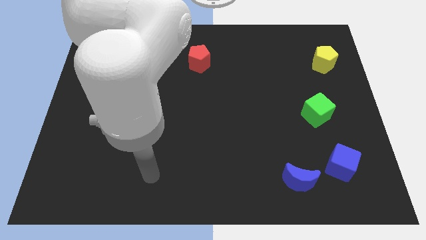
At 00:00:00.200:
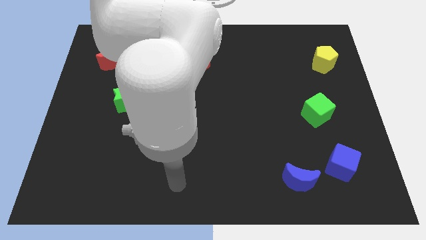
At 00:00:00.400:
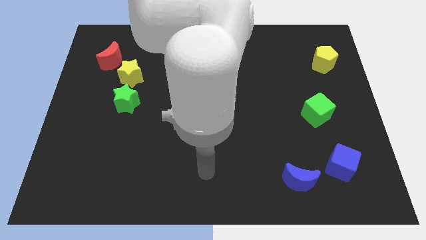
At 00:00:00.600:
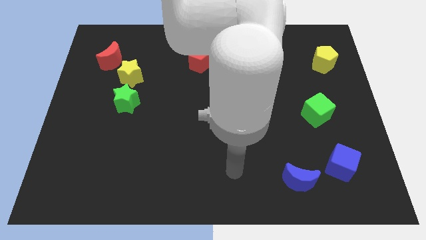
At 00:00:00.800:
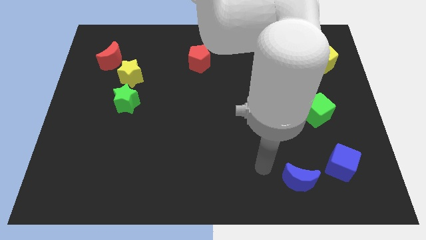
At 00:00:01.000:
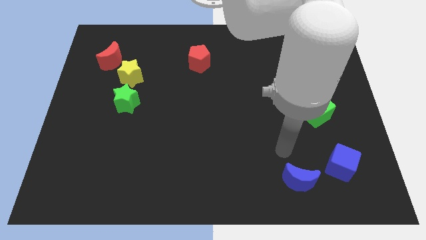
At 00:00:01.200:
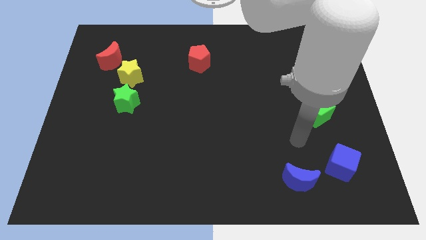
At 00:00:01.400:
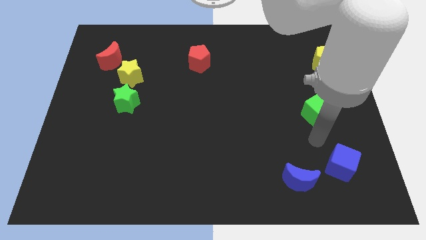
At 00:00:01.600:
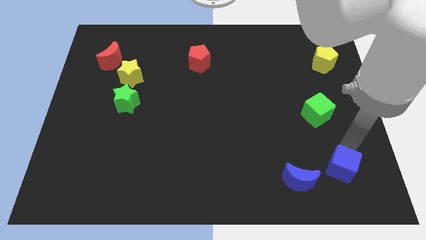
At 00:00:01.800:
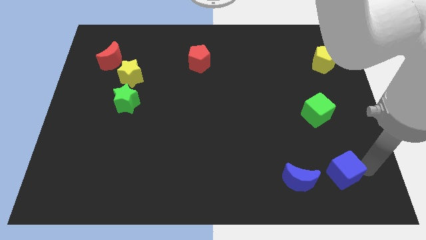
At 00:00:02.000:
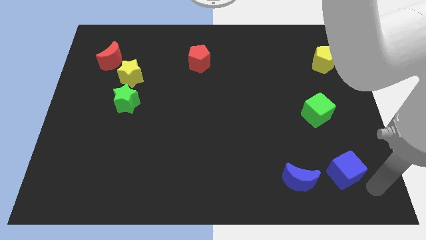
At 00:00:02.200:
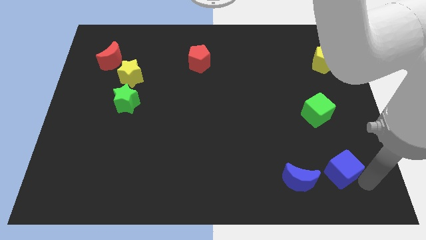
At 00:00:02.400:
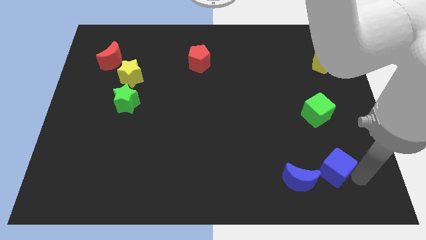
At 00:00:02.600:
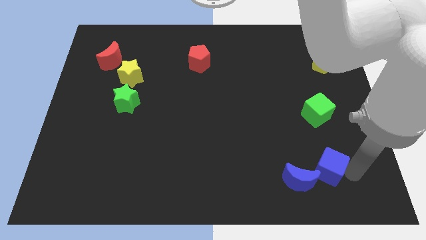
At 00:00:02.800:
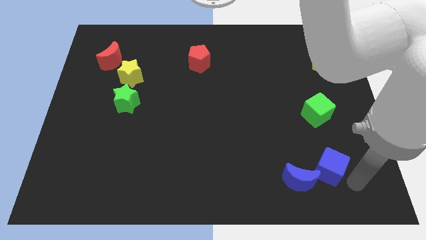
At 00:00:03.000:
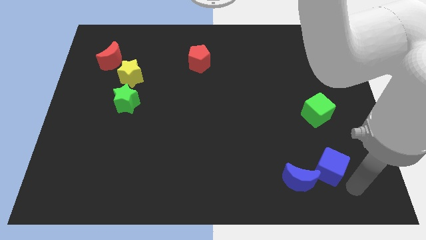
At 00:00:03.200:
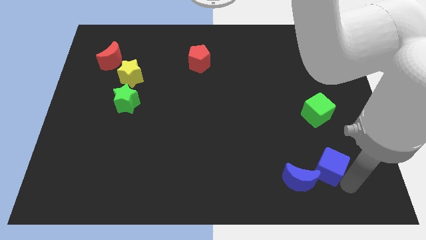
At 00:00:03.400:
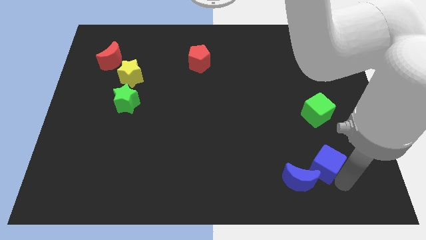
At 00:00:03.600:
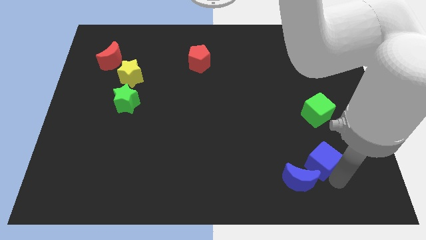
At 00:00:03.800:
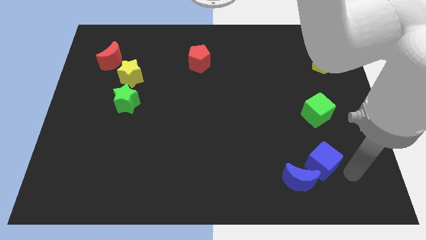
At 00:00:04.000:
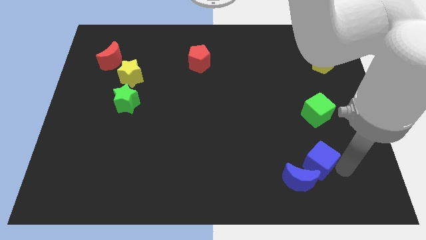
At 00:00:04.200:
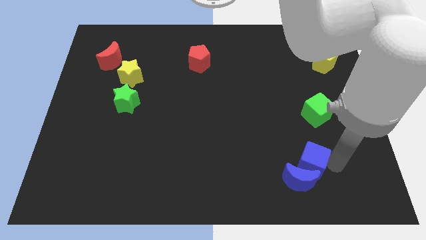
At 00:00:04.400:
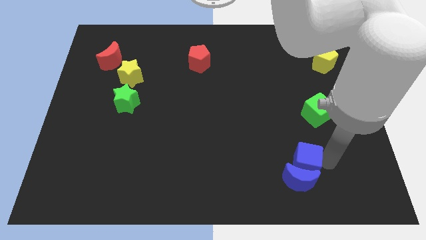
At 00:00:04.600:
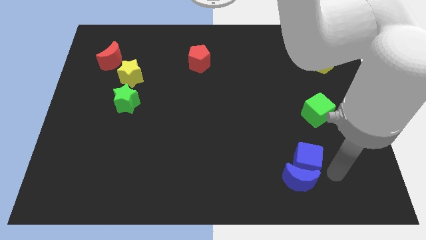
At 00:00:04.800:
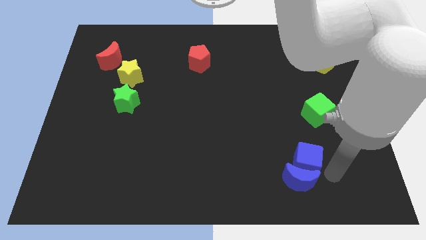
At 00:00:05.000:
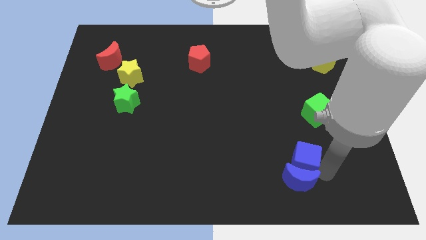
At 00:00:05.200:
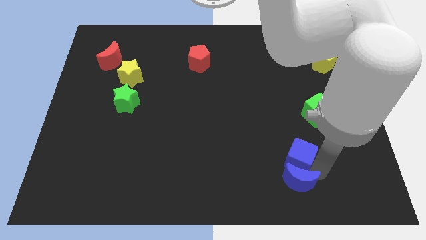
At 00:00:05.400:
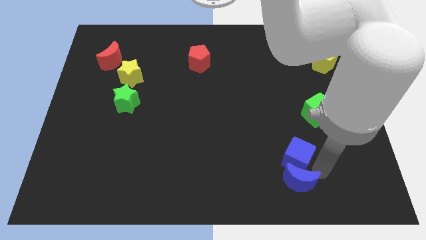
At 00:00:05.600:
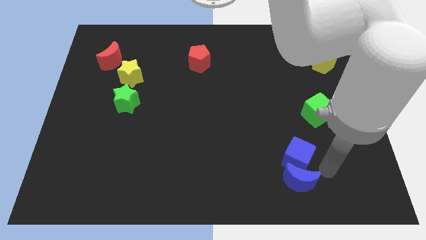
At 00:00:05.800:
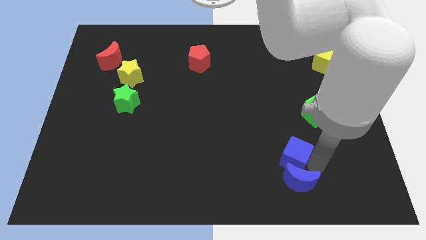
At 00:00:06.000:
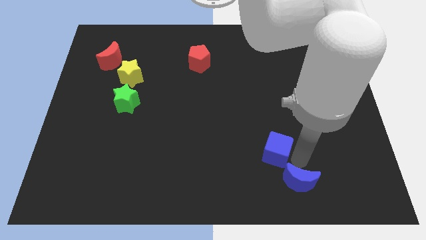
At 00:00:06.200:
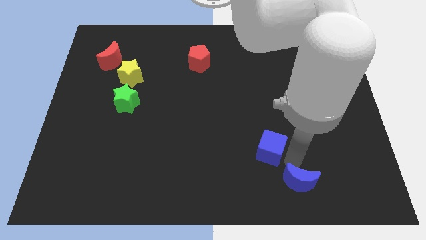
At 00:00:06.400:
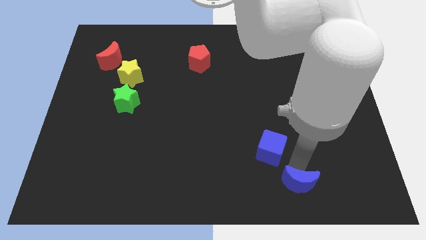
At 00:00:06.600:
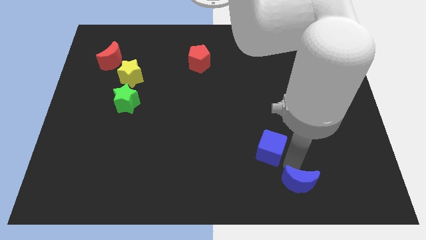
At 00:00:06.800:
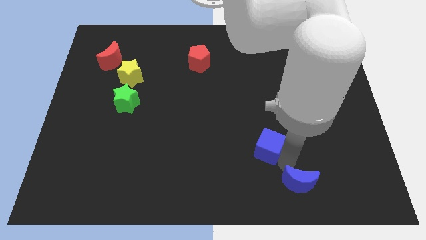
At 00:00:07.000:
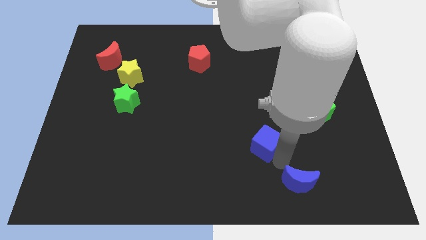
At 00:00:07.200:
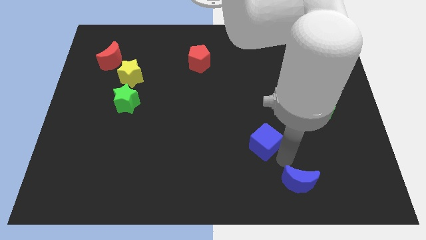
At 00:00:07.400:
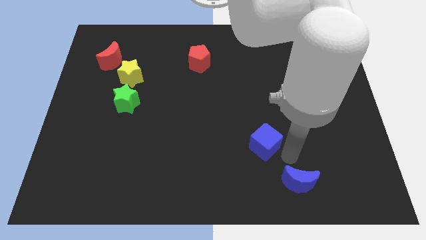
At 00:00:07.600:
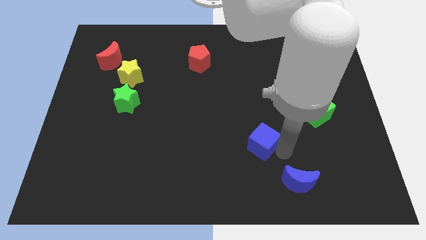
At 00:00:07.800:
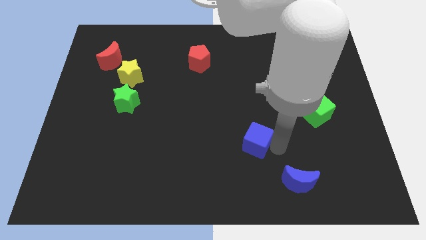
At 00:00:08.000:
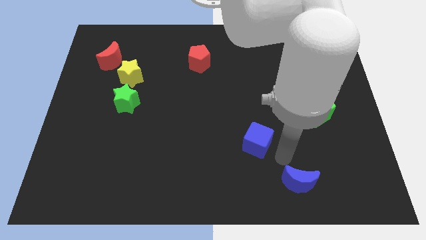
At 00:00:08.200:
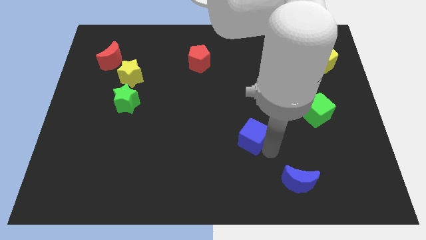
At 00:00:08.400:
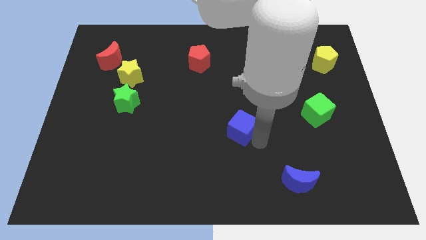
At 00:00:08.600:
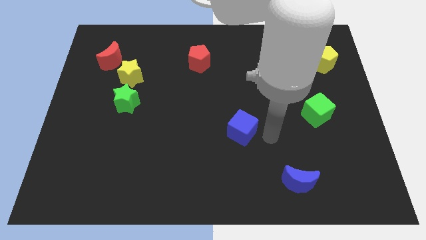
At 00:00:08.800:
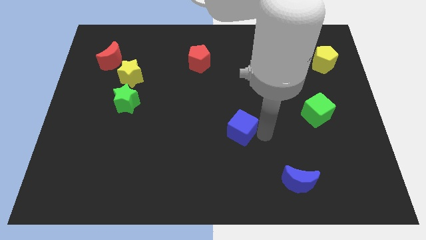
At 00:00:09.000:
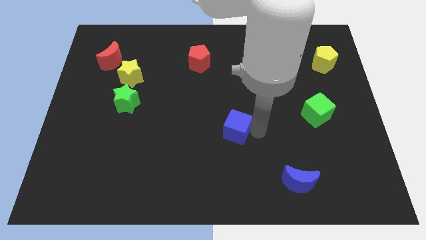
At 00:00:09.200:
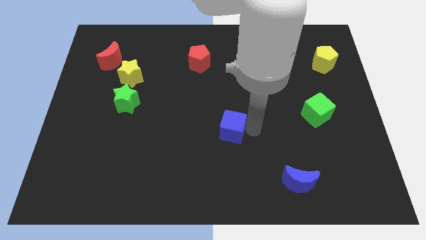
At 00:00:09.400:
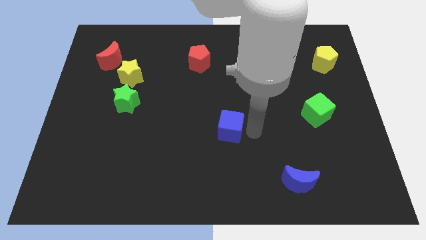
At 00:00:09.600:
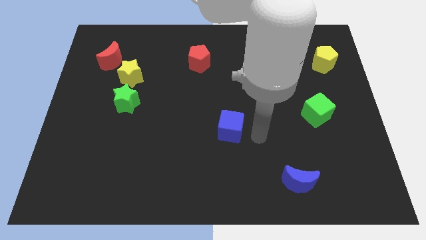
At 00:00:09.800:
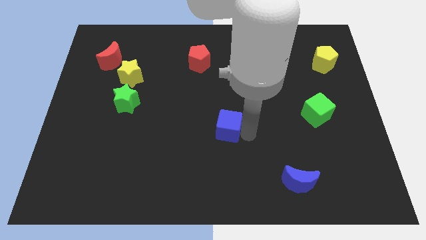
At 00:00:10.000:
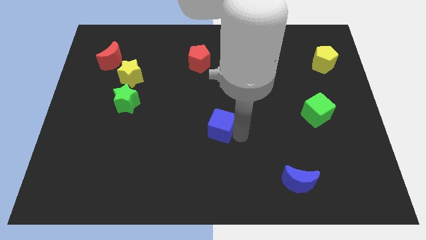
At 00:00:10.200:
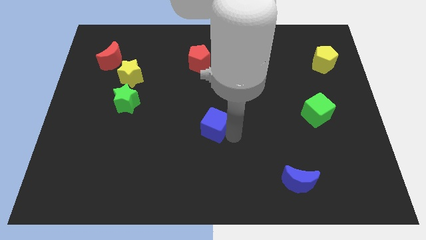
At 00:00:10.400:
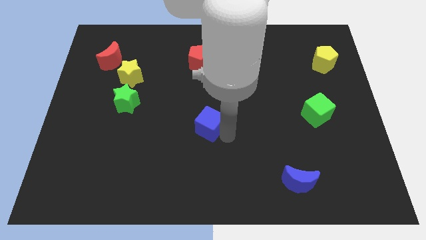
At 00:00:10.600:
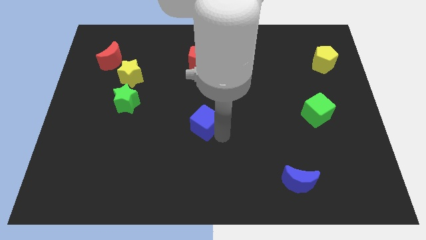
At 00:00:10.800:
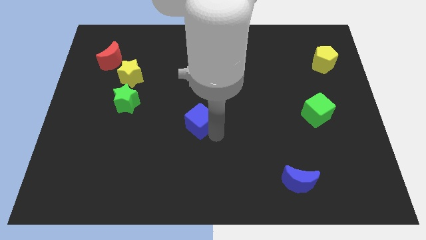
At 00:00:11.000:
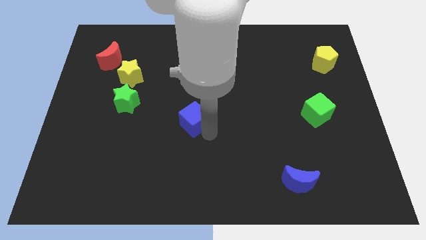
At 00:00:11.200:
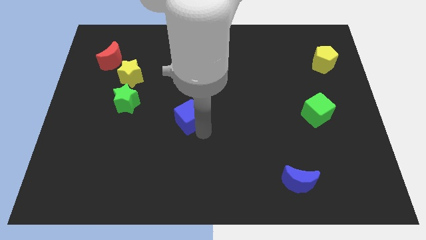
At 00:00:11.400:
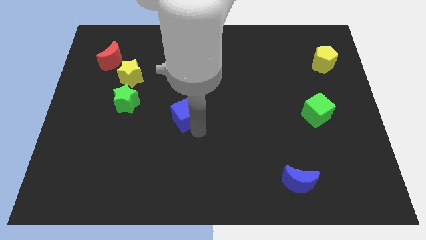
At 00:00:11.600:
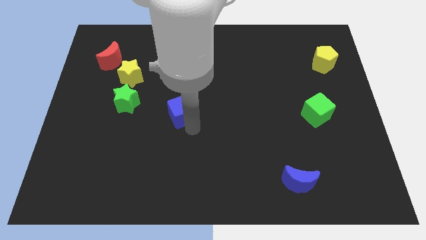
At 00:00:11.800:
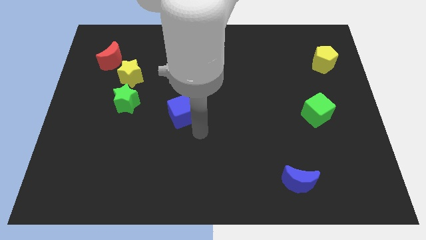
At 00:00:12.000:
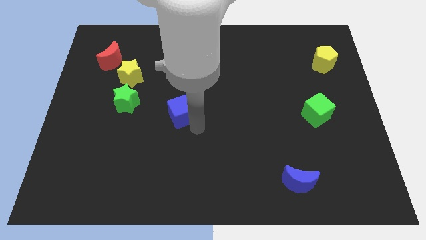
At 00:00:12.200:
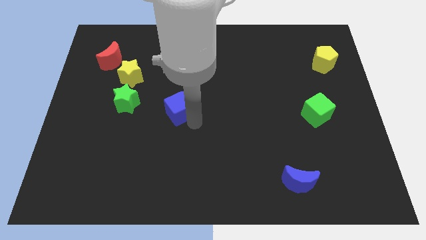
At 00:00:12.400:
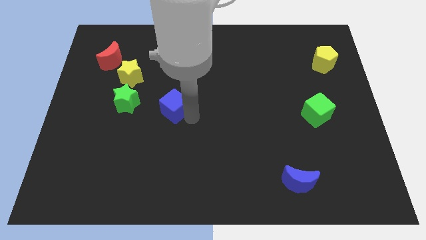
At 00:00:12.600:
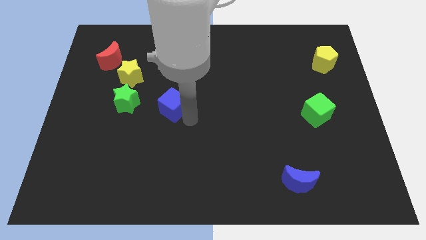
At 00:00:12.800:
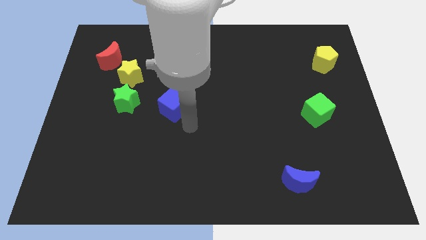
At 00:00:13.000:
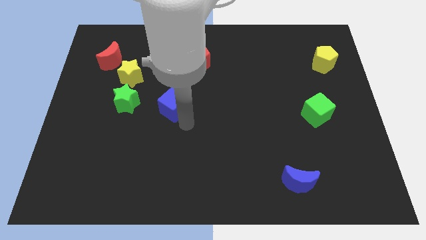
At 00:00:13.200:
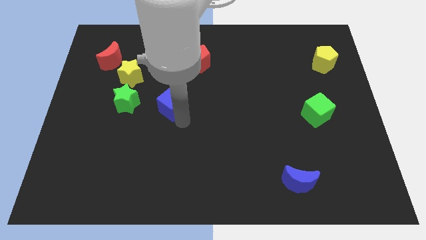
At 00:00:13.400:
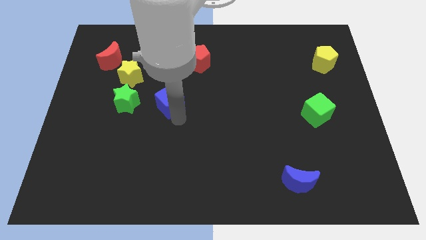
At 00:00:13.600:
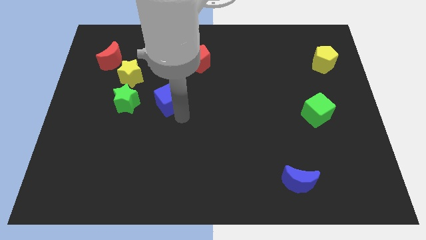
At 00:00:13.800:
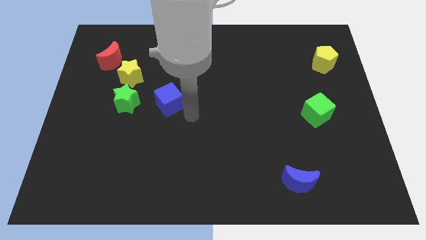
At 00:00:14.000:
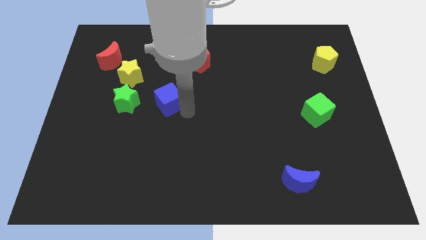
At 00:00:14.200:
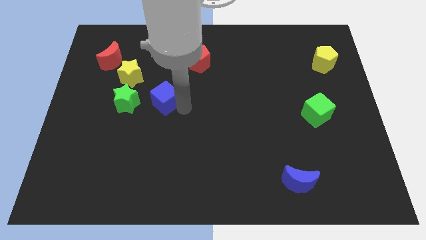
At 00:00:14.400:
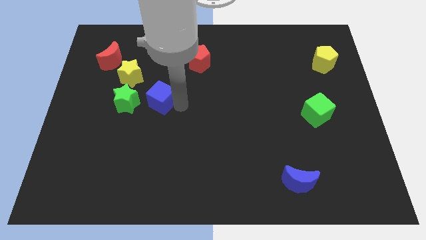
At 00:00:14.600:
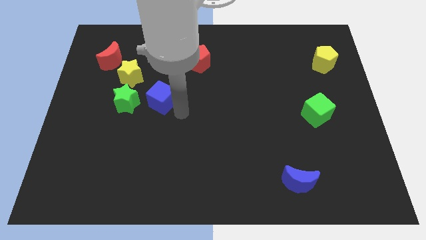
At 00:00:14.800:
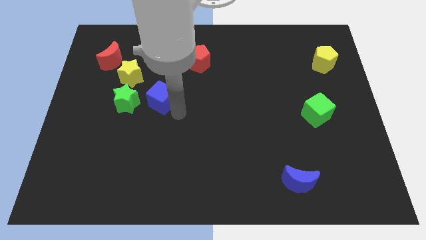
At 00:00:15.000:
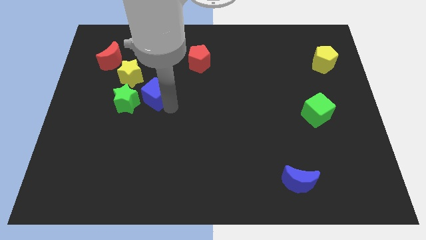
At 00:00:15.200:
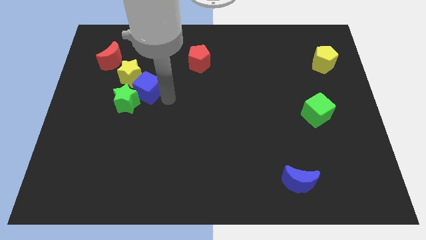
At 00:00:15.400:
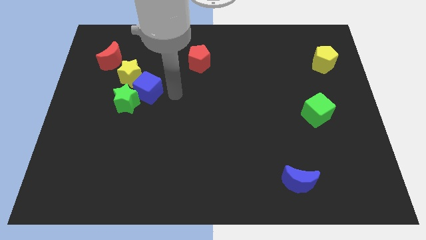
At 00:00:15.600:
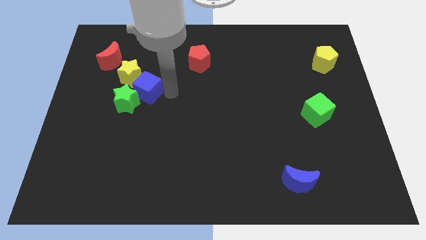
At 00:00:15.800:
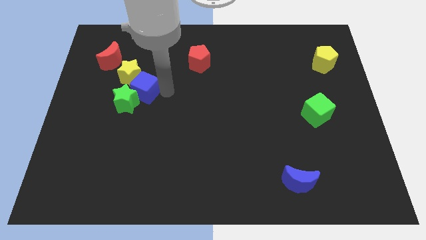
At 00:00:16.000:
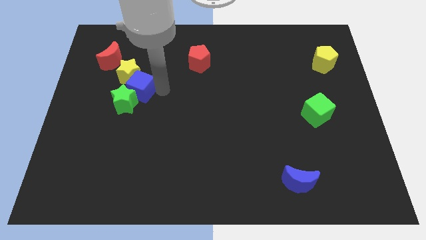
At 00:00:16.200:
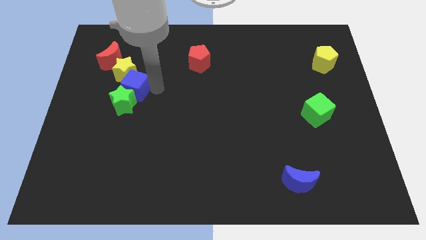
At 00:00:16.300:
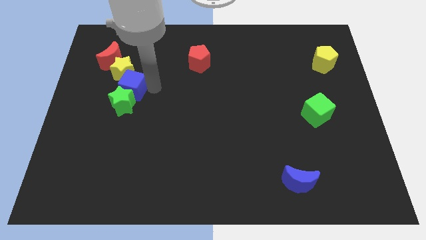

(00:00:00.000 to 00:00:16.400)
push the blue cube to the top left of the green star
